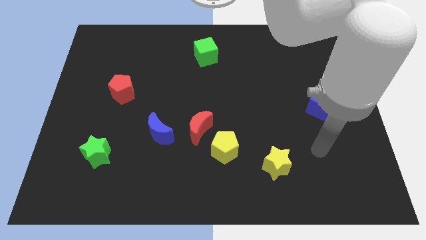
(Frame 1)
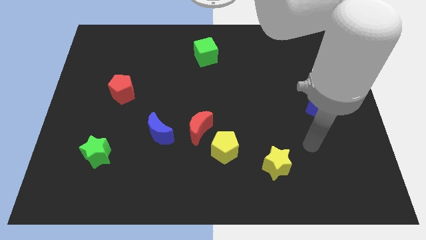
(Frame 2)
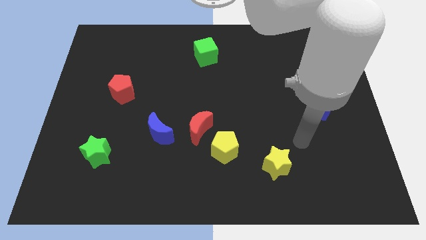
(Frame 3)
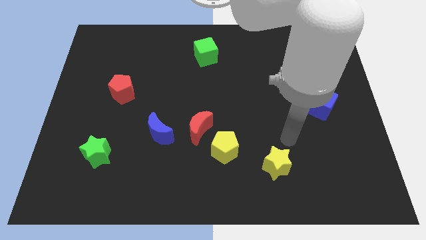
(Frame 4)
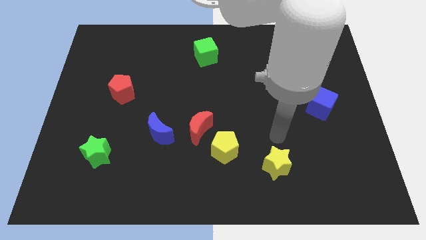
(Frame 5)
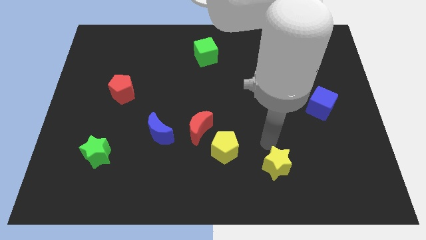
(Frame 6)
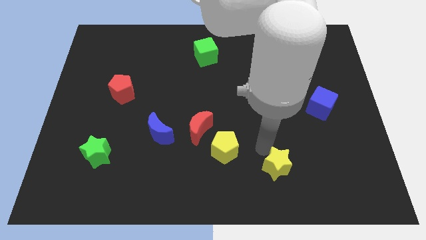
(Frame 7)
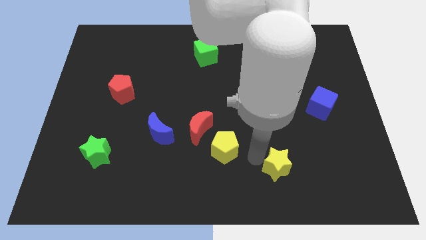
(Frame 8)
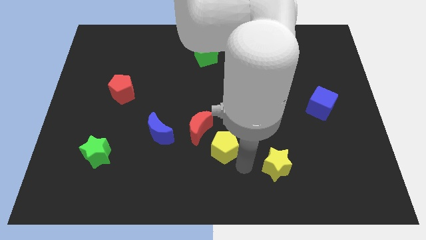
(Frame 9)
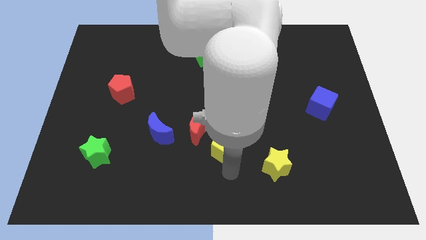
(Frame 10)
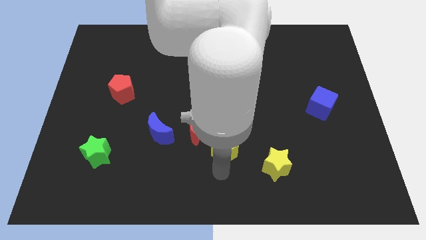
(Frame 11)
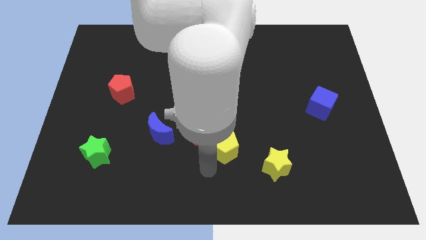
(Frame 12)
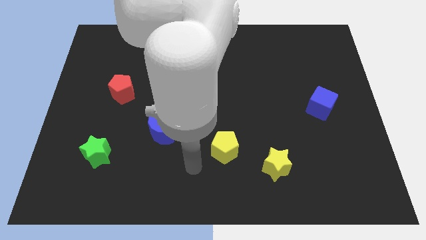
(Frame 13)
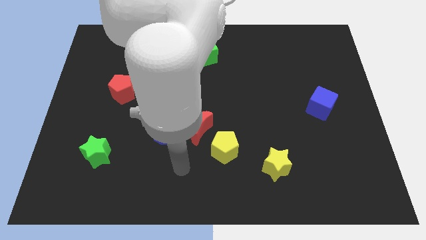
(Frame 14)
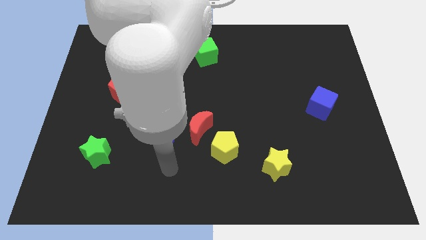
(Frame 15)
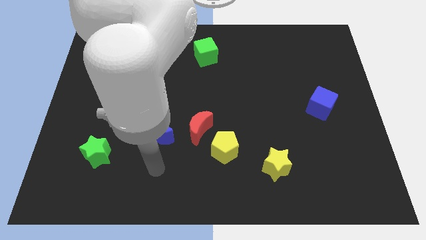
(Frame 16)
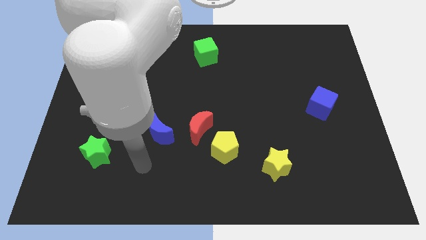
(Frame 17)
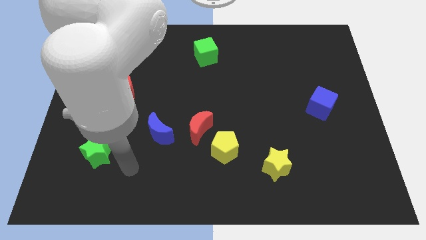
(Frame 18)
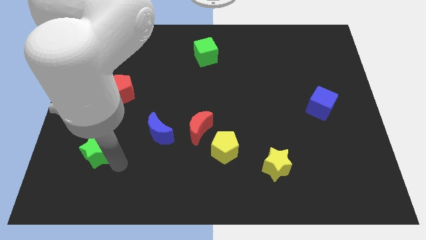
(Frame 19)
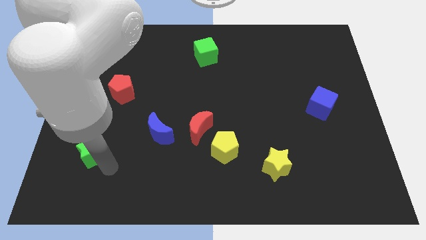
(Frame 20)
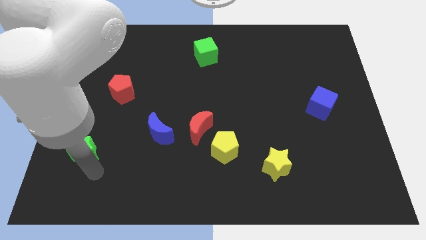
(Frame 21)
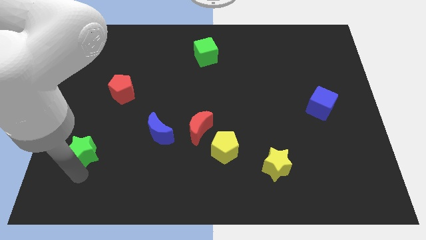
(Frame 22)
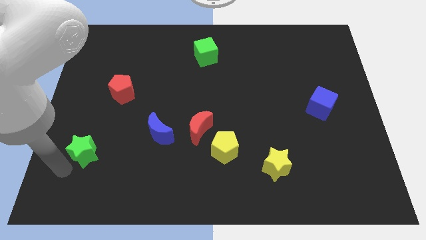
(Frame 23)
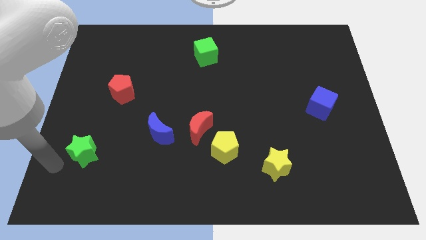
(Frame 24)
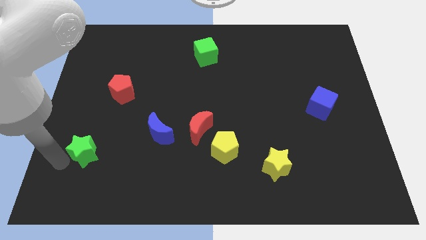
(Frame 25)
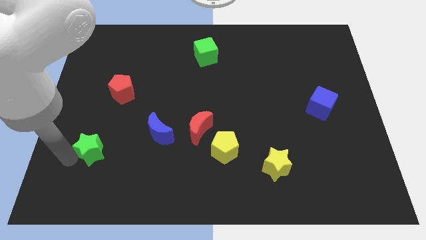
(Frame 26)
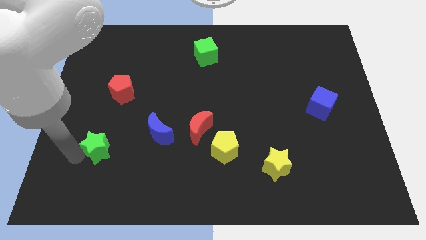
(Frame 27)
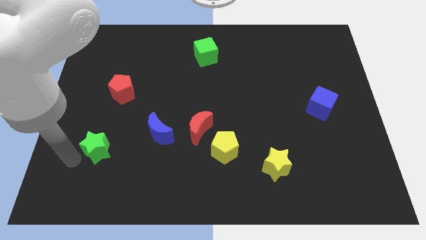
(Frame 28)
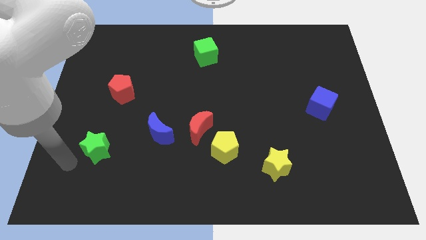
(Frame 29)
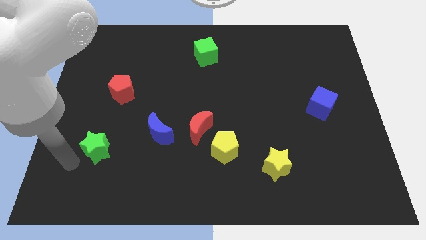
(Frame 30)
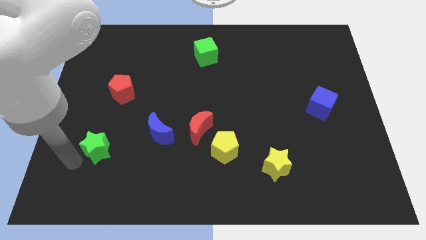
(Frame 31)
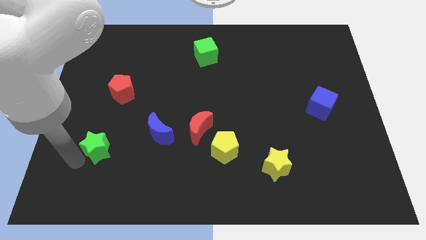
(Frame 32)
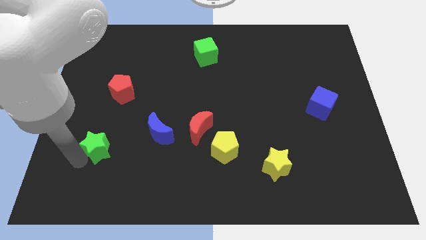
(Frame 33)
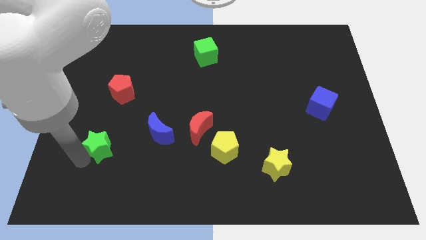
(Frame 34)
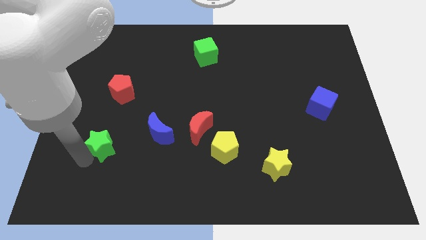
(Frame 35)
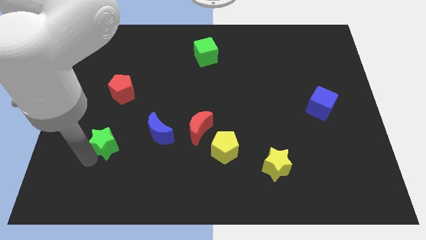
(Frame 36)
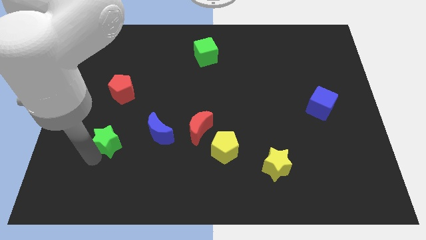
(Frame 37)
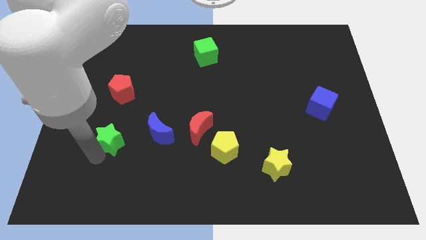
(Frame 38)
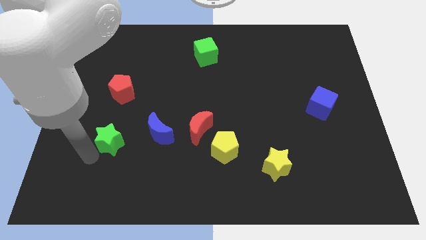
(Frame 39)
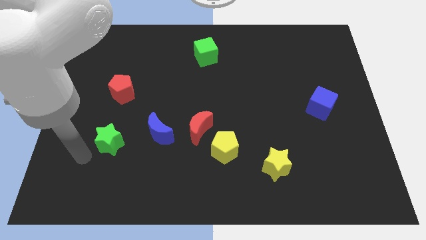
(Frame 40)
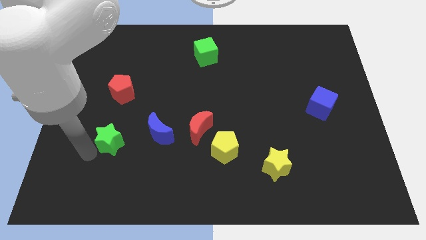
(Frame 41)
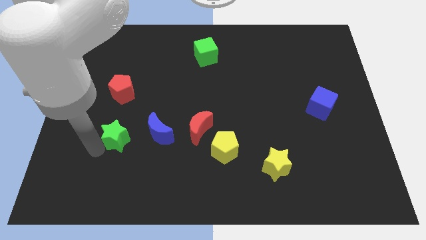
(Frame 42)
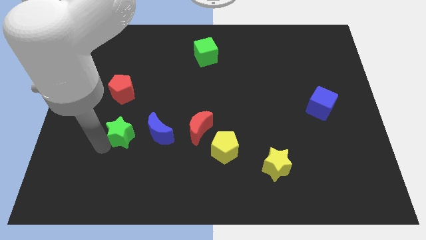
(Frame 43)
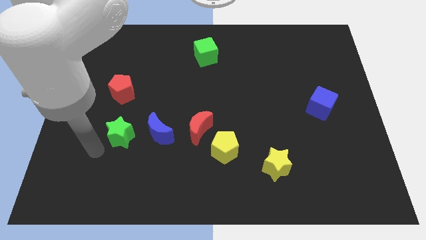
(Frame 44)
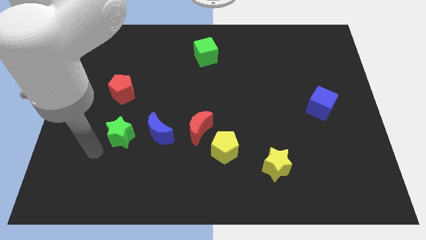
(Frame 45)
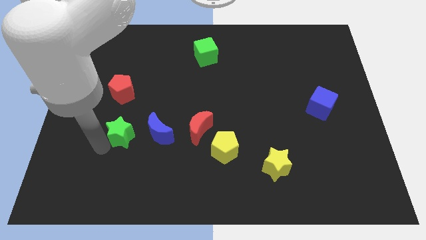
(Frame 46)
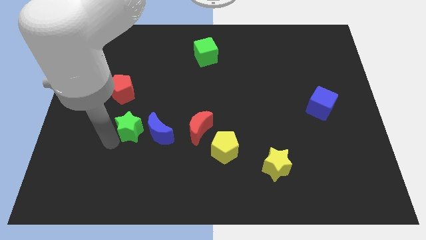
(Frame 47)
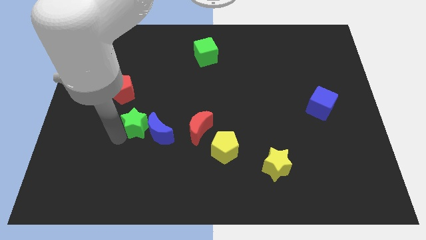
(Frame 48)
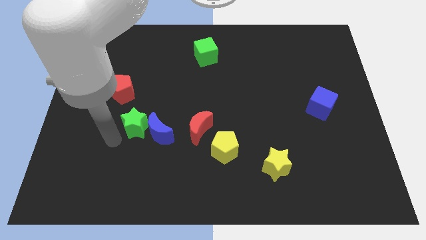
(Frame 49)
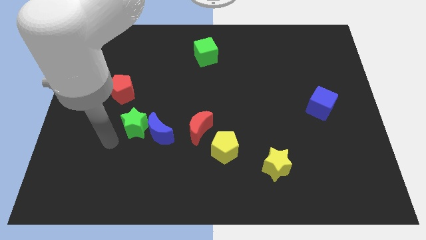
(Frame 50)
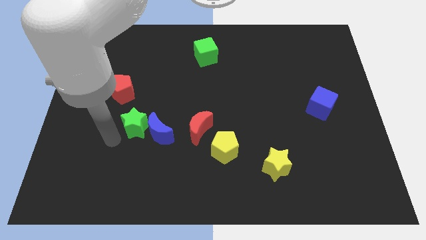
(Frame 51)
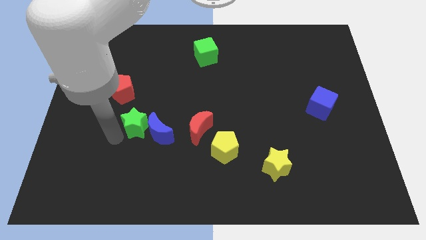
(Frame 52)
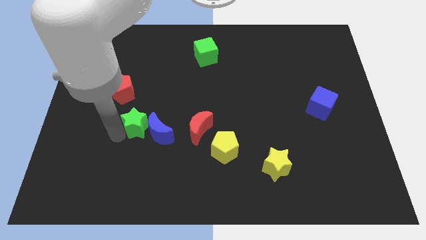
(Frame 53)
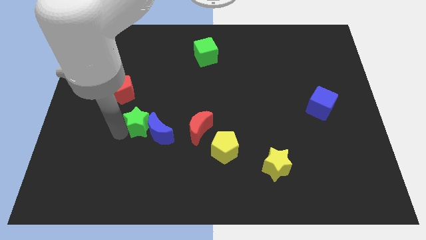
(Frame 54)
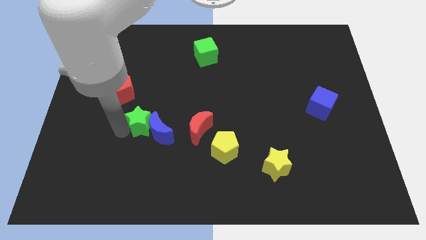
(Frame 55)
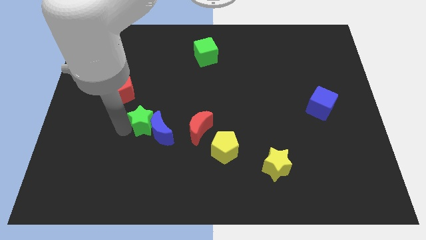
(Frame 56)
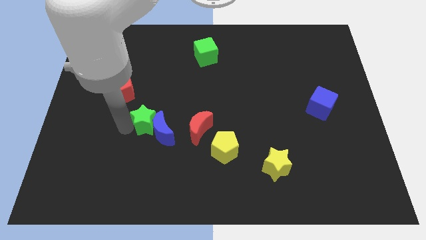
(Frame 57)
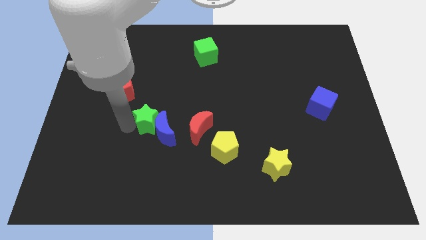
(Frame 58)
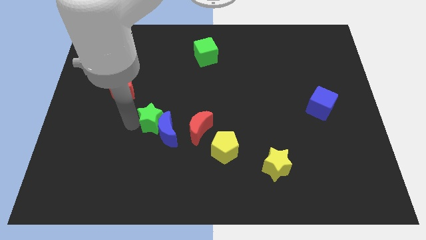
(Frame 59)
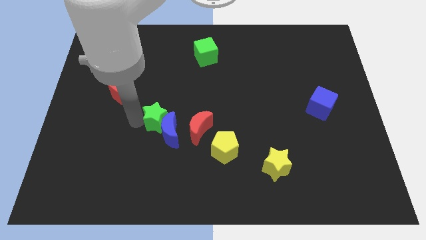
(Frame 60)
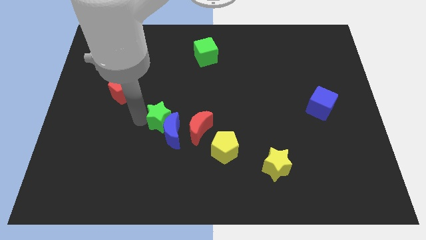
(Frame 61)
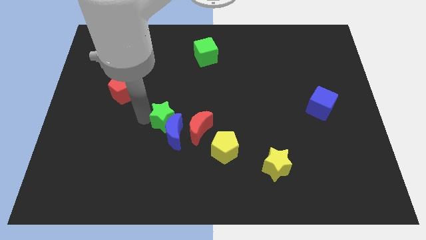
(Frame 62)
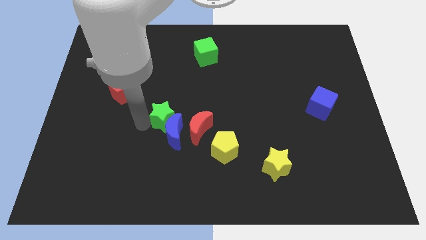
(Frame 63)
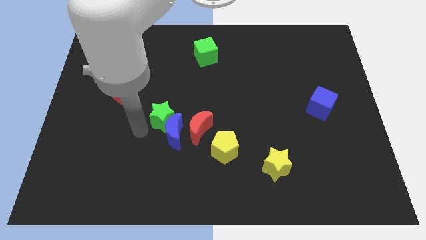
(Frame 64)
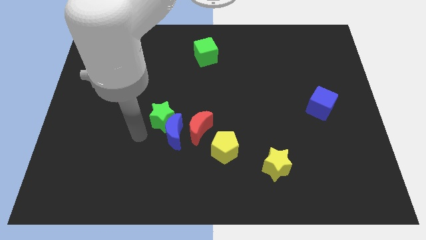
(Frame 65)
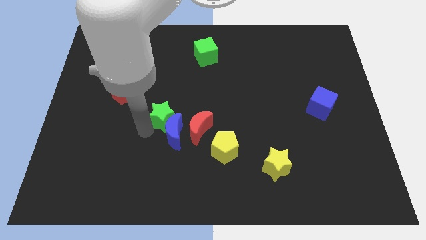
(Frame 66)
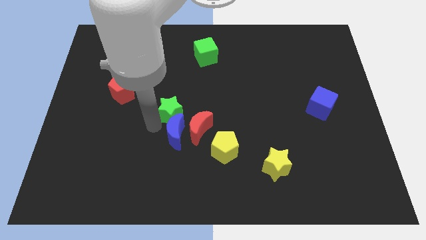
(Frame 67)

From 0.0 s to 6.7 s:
slide the green star to the middle
